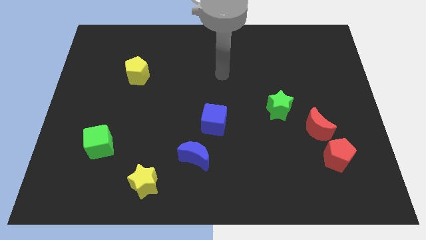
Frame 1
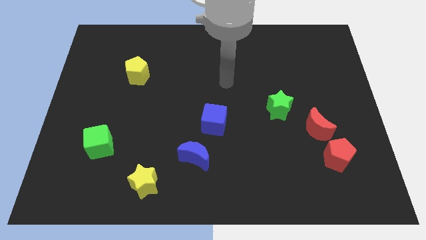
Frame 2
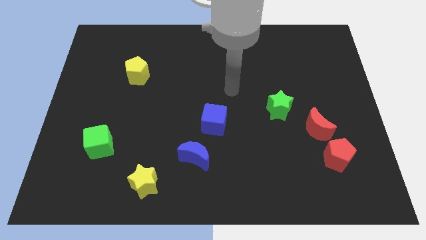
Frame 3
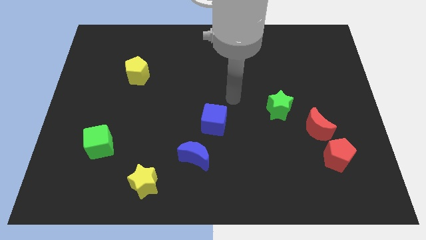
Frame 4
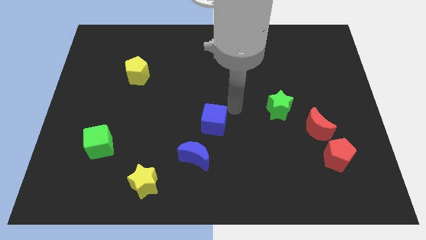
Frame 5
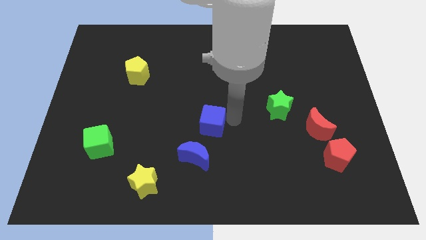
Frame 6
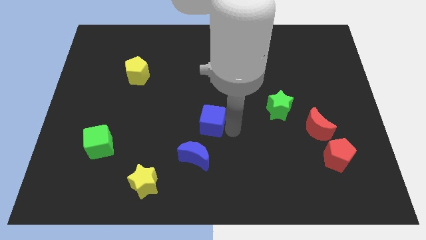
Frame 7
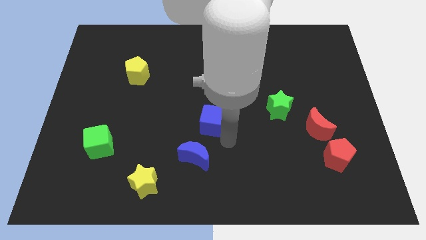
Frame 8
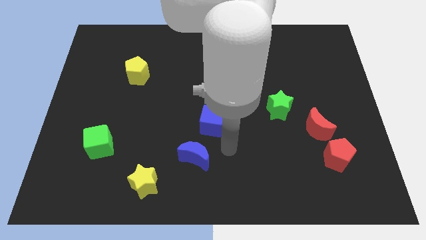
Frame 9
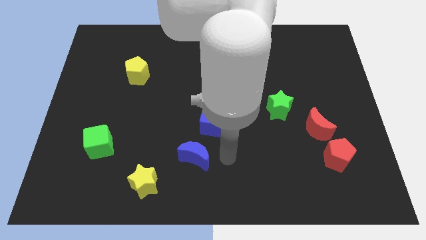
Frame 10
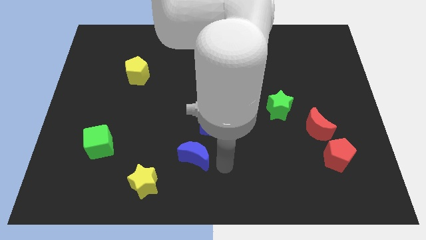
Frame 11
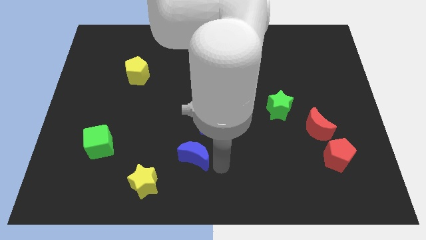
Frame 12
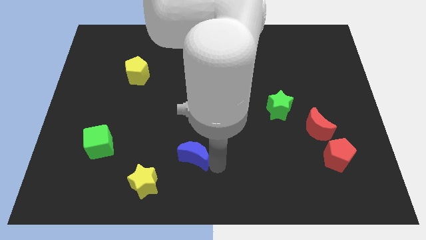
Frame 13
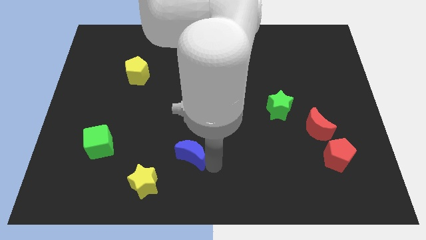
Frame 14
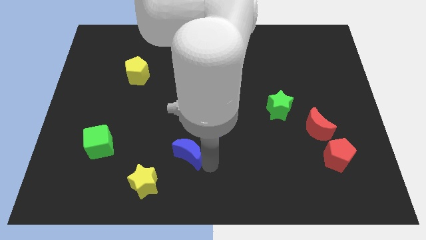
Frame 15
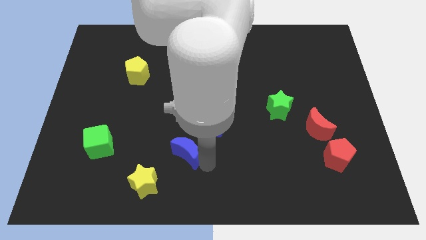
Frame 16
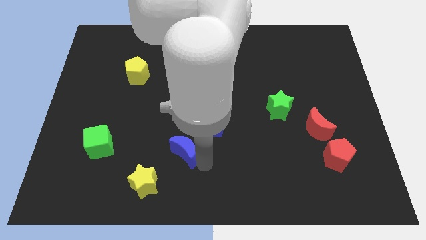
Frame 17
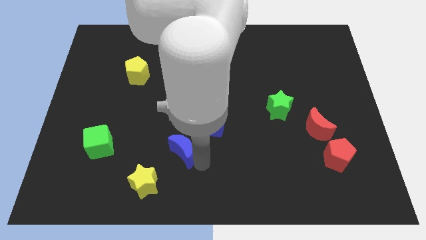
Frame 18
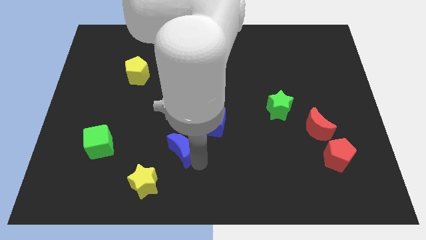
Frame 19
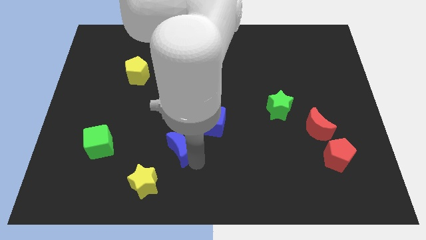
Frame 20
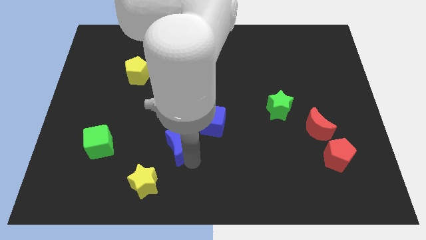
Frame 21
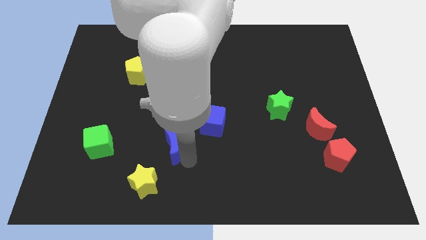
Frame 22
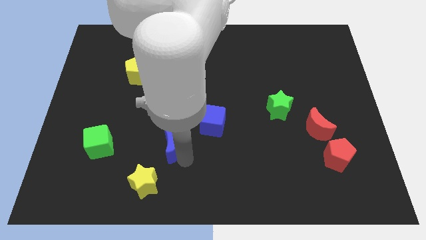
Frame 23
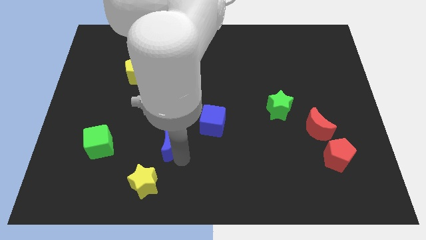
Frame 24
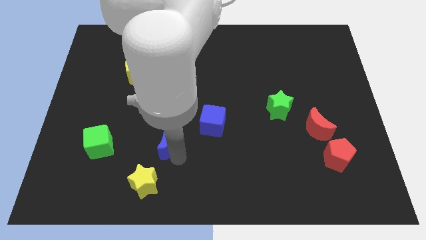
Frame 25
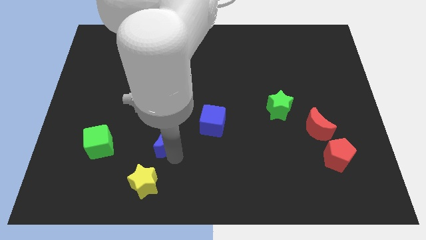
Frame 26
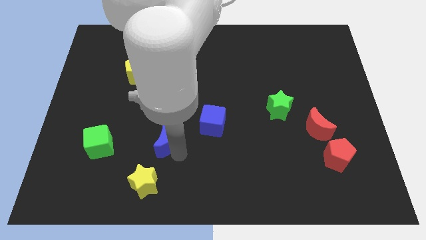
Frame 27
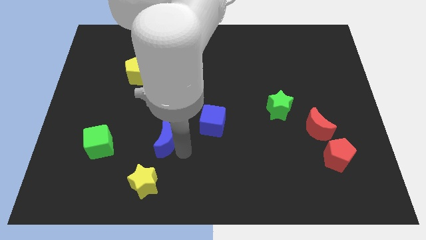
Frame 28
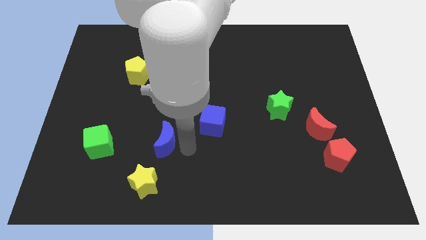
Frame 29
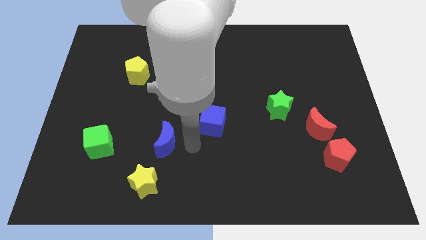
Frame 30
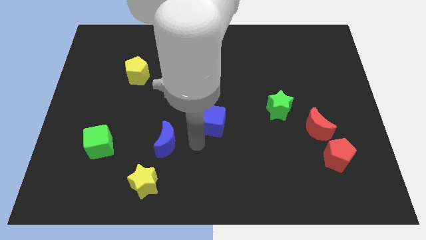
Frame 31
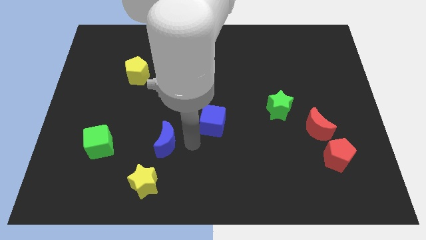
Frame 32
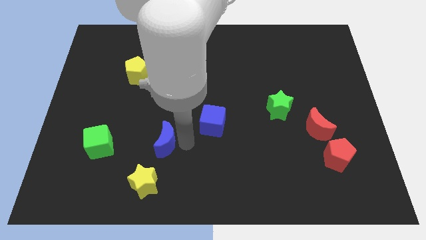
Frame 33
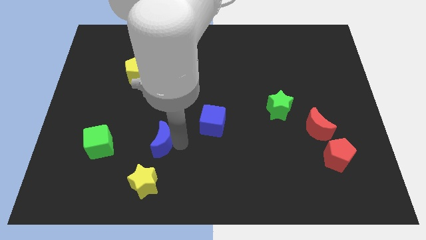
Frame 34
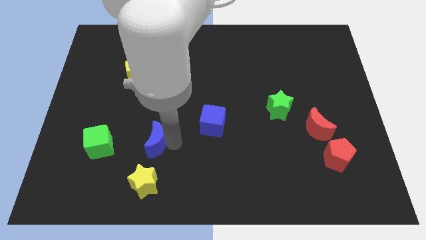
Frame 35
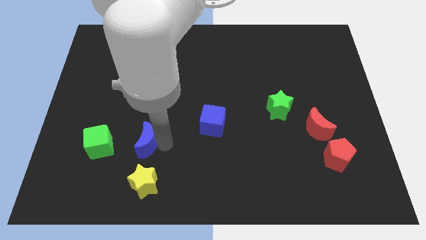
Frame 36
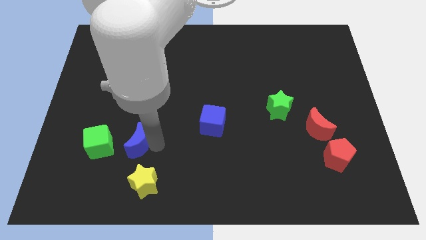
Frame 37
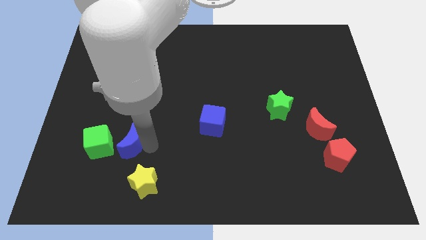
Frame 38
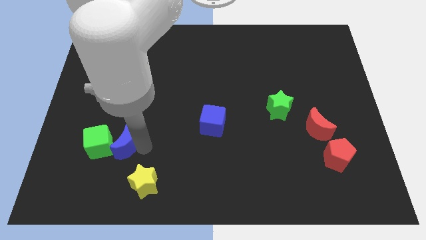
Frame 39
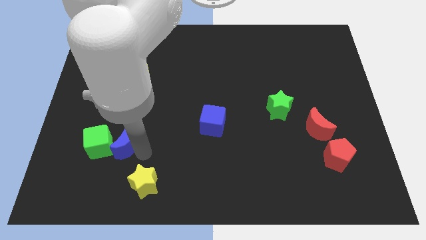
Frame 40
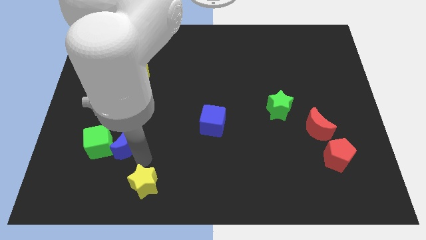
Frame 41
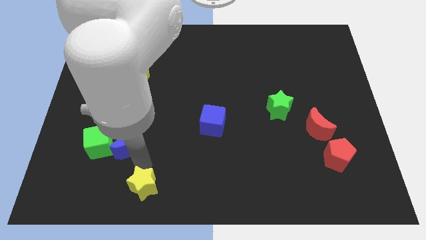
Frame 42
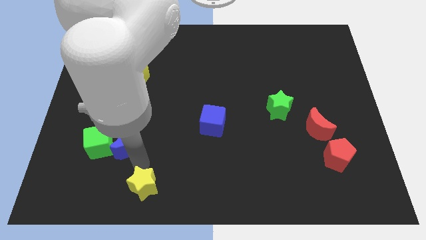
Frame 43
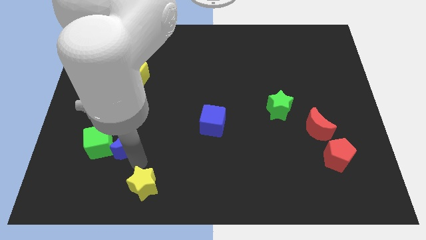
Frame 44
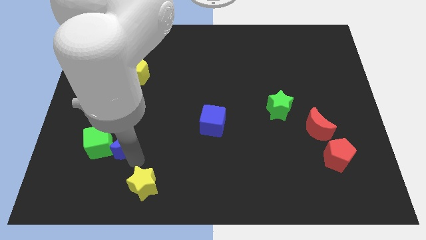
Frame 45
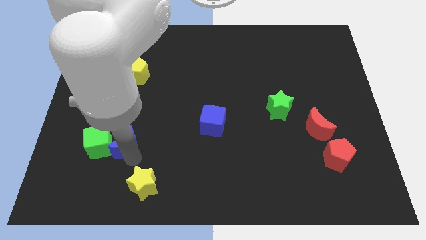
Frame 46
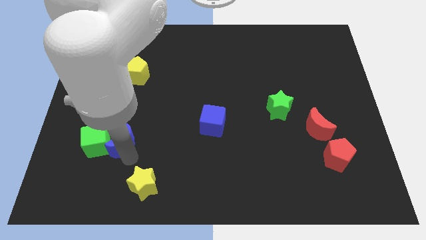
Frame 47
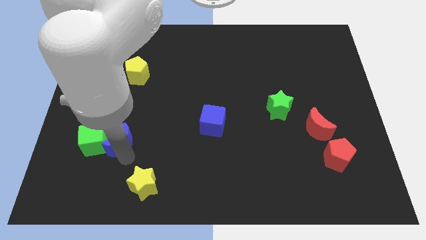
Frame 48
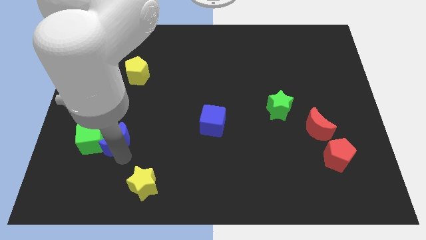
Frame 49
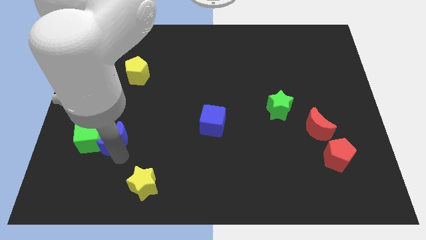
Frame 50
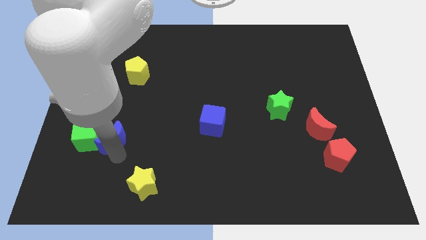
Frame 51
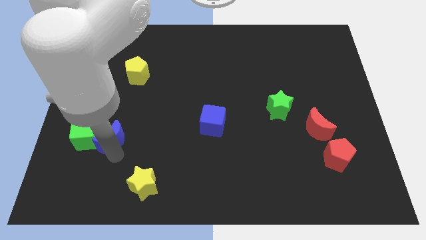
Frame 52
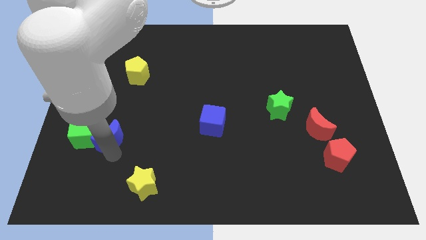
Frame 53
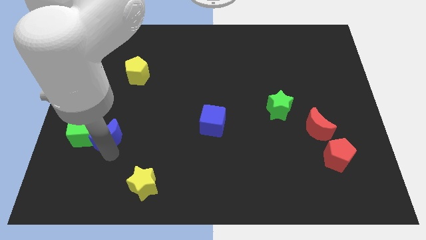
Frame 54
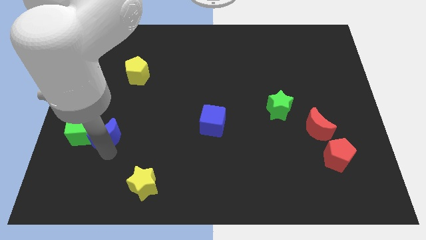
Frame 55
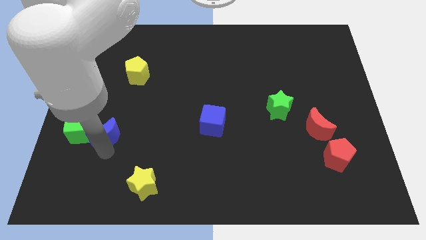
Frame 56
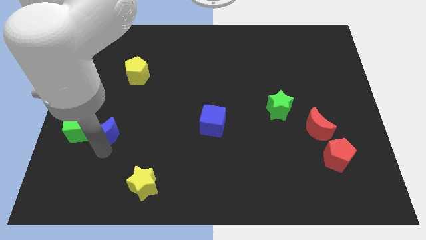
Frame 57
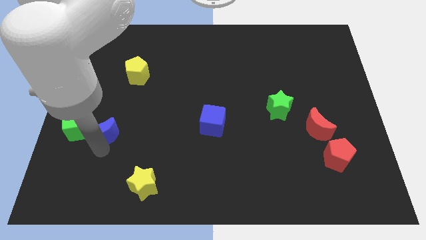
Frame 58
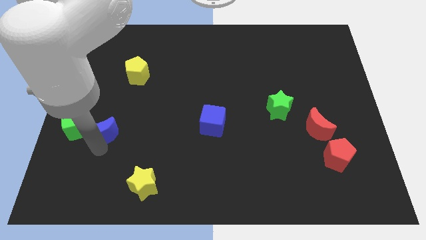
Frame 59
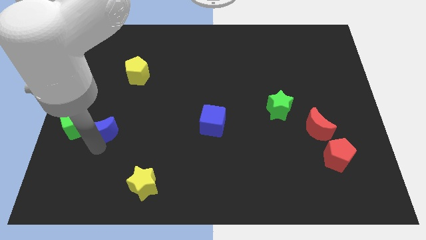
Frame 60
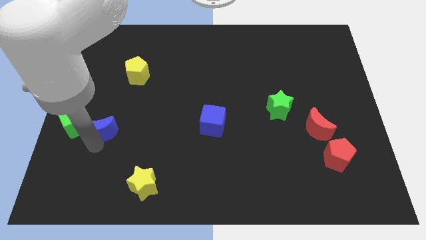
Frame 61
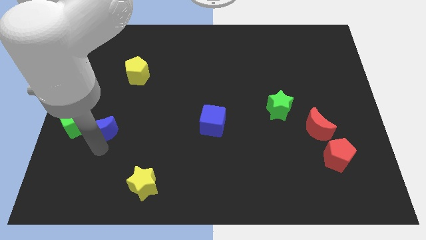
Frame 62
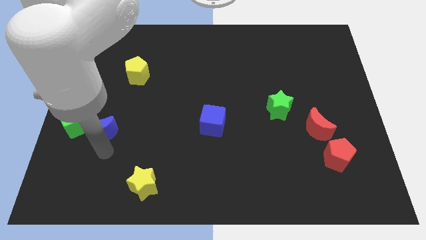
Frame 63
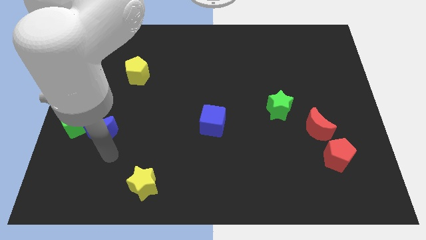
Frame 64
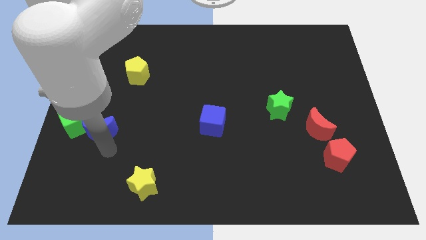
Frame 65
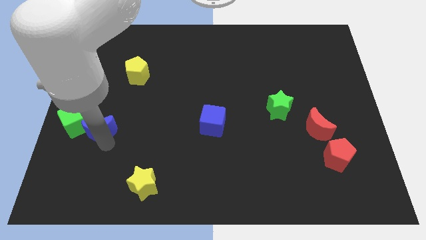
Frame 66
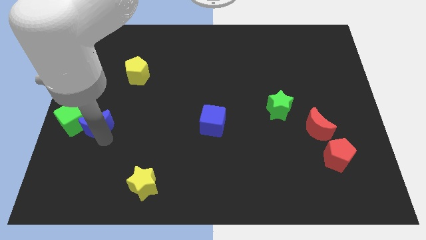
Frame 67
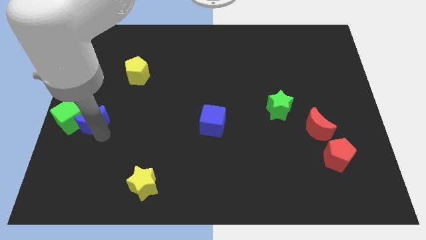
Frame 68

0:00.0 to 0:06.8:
push the blue moon to the left side
